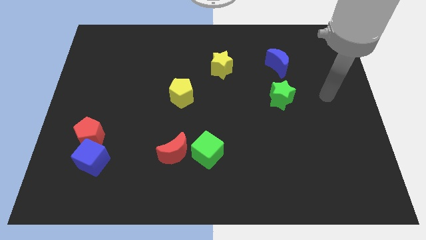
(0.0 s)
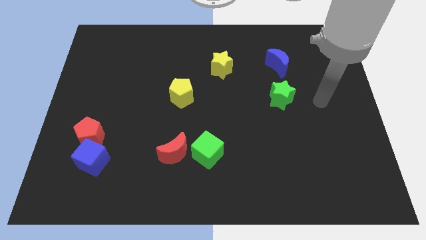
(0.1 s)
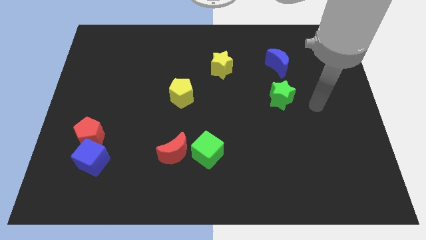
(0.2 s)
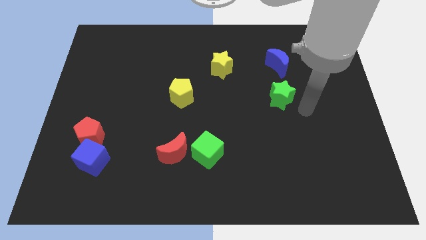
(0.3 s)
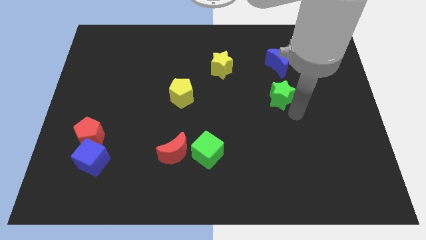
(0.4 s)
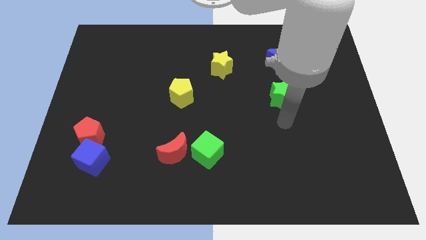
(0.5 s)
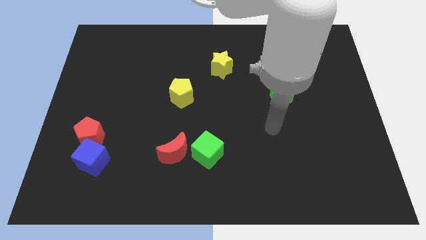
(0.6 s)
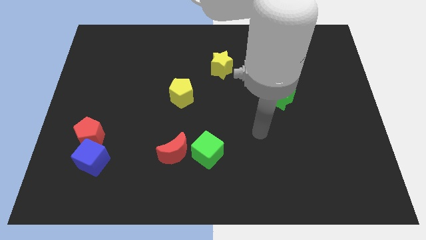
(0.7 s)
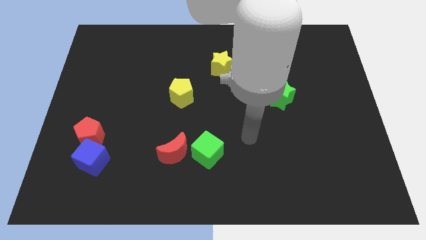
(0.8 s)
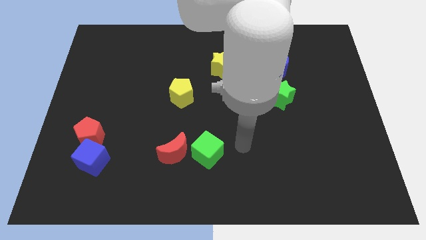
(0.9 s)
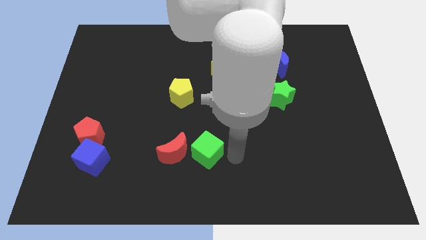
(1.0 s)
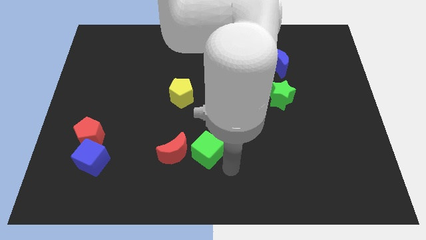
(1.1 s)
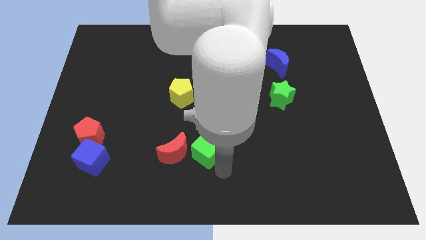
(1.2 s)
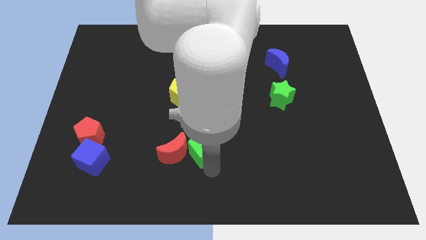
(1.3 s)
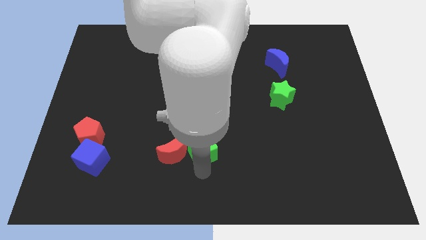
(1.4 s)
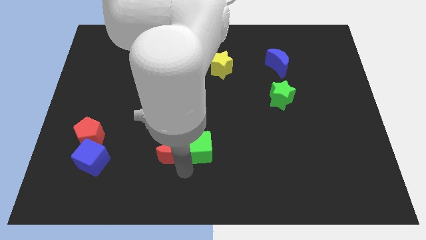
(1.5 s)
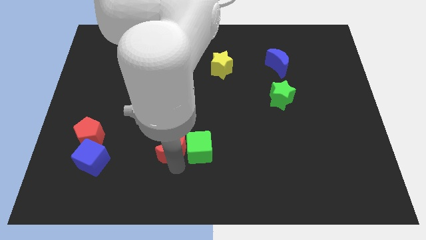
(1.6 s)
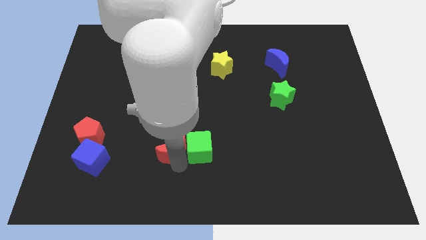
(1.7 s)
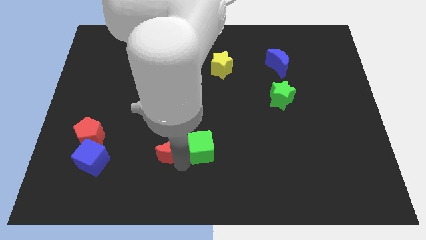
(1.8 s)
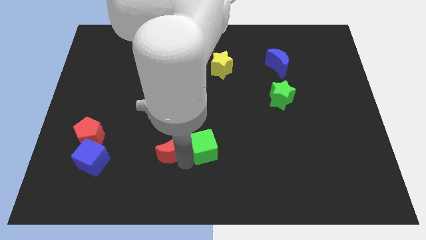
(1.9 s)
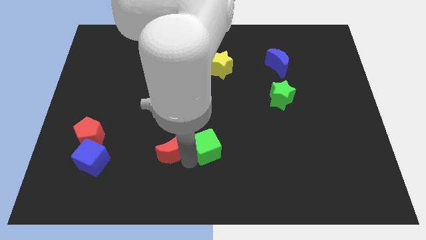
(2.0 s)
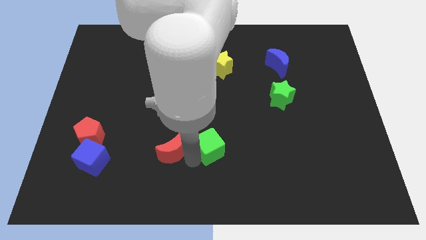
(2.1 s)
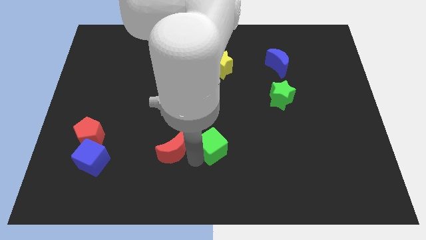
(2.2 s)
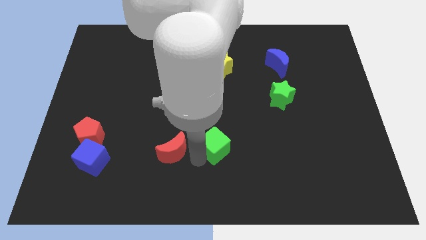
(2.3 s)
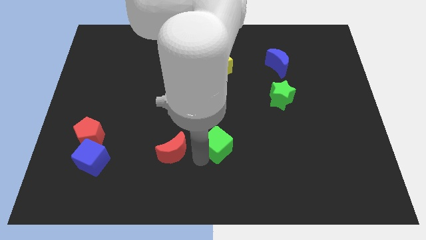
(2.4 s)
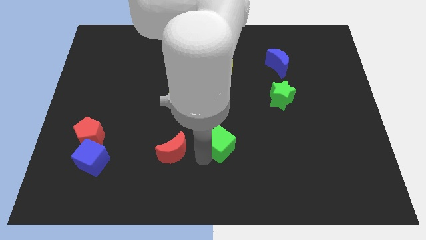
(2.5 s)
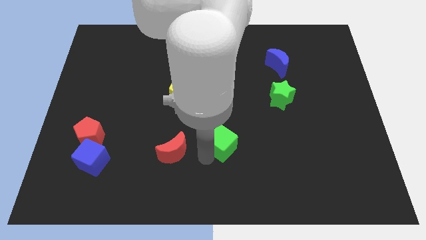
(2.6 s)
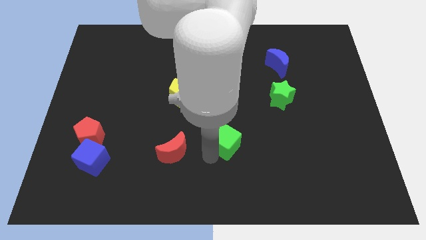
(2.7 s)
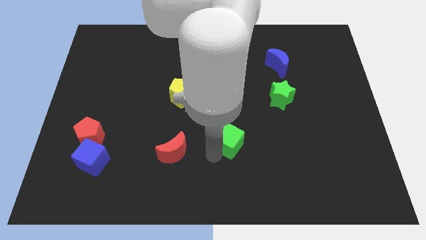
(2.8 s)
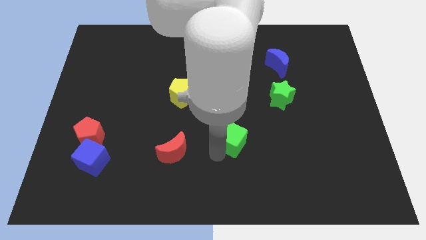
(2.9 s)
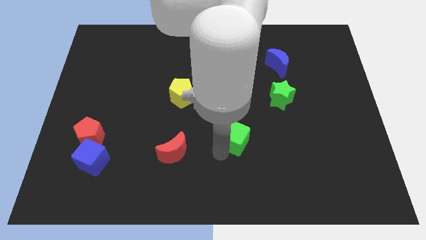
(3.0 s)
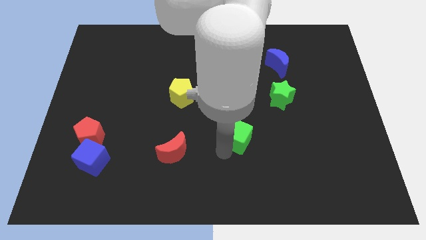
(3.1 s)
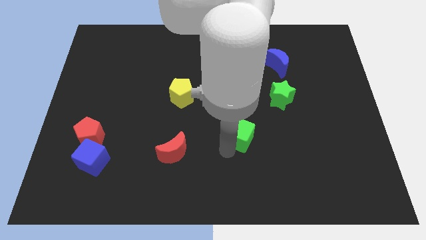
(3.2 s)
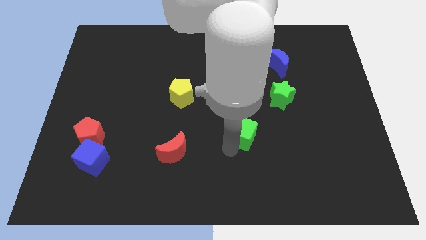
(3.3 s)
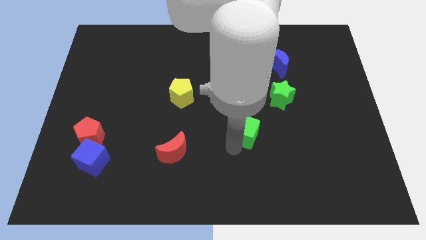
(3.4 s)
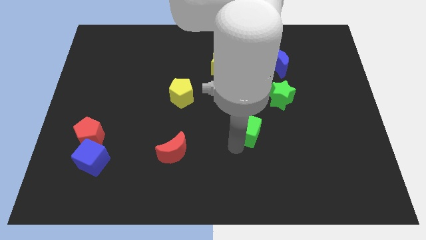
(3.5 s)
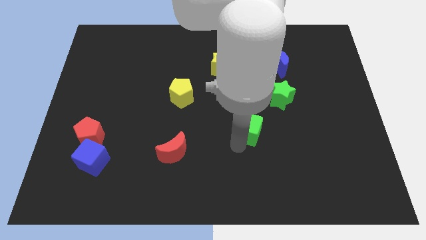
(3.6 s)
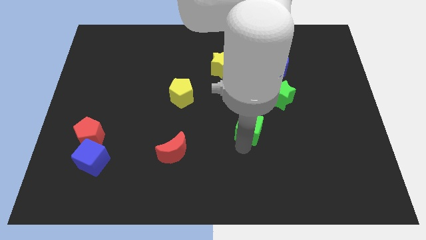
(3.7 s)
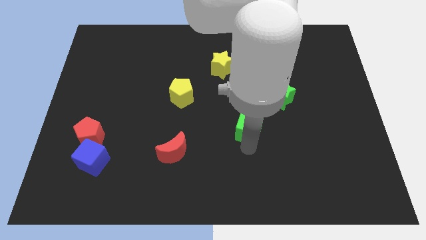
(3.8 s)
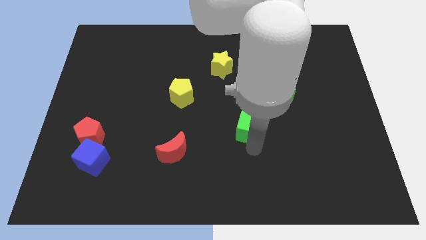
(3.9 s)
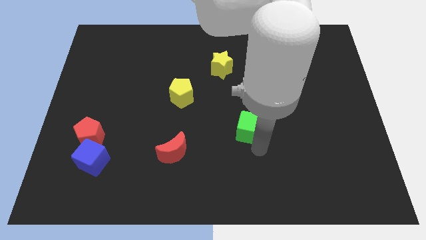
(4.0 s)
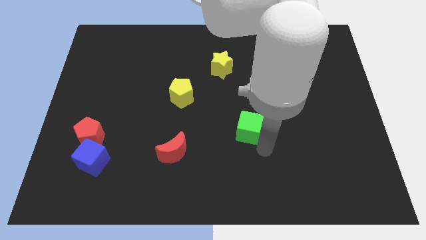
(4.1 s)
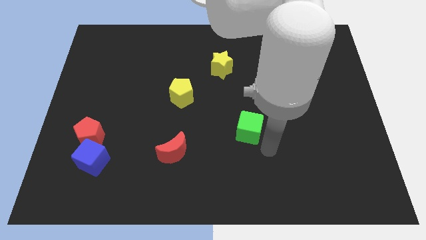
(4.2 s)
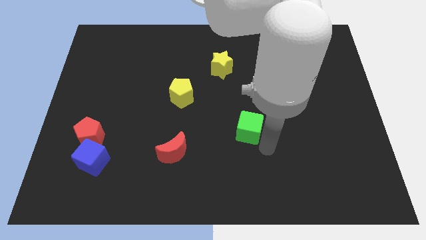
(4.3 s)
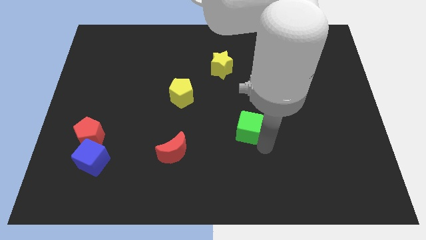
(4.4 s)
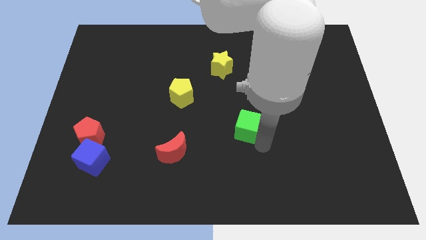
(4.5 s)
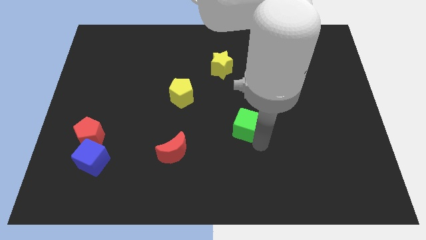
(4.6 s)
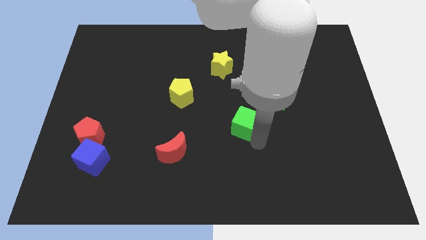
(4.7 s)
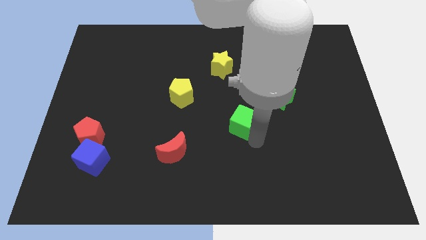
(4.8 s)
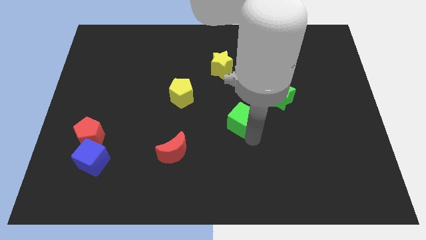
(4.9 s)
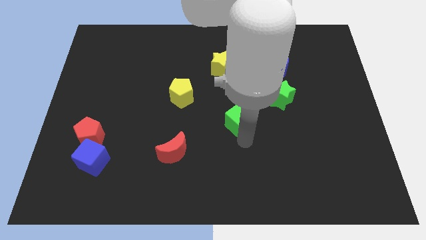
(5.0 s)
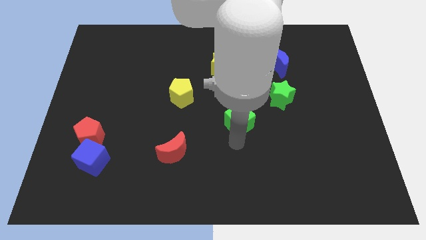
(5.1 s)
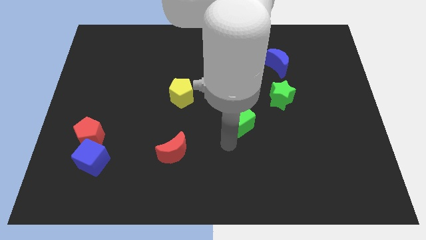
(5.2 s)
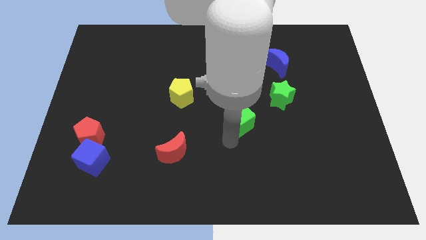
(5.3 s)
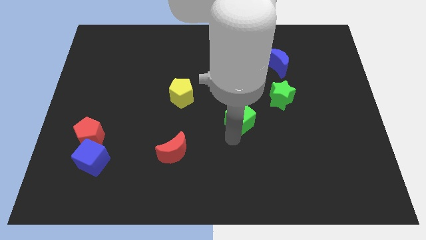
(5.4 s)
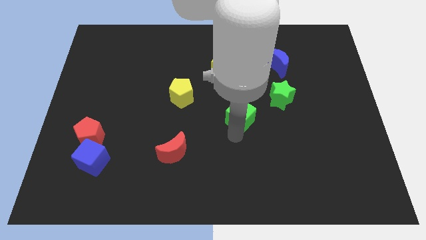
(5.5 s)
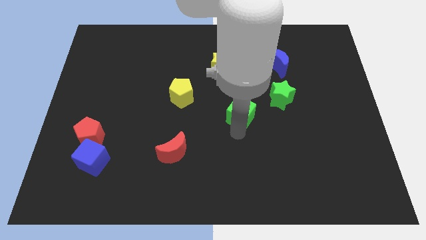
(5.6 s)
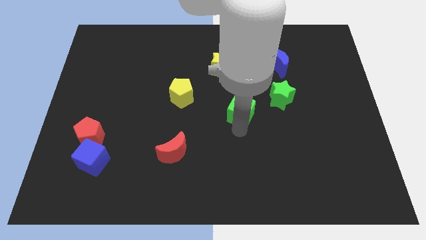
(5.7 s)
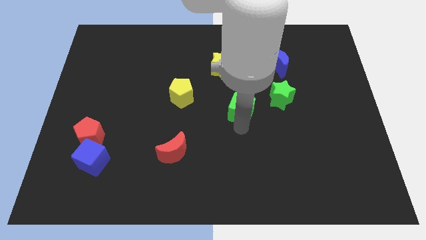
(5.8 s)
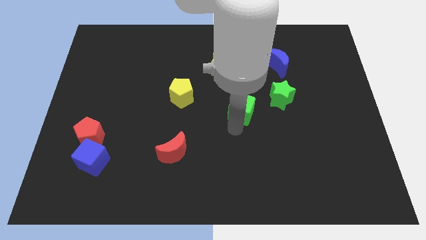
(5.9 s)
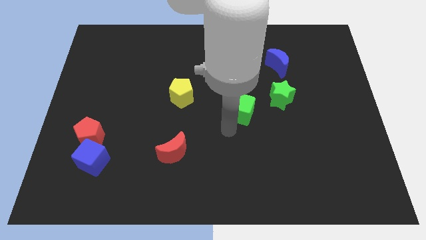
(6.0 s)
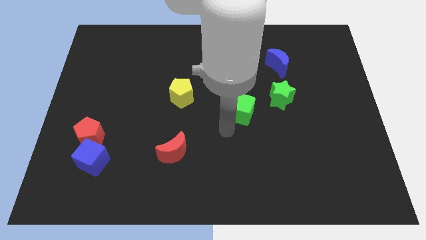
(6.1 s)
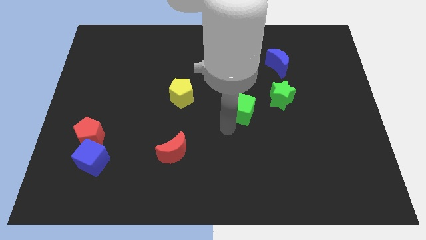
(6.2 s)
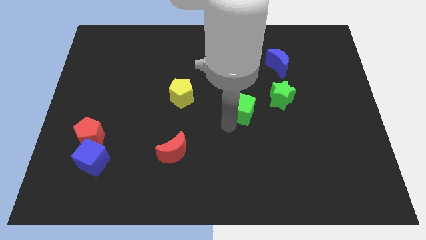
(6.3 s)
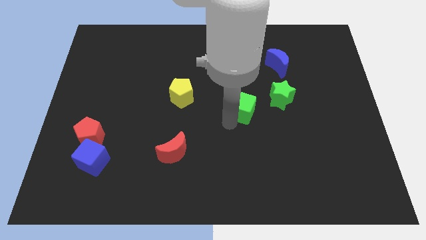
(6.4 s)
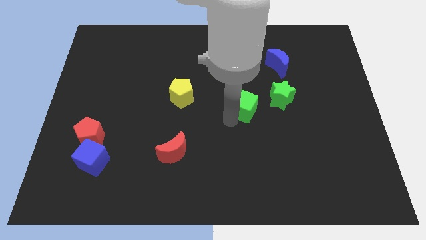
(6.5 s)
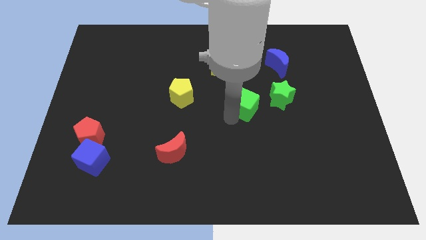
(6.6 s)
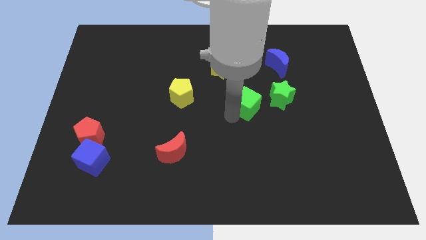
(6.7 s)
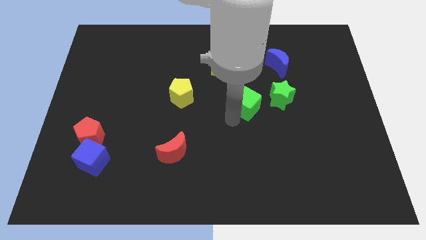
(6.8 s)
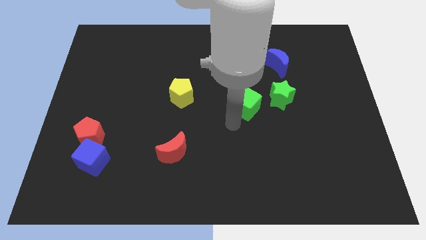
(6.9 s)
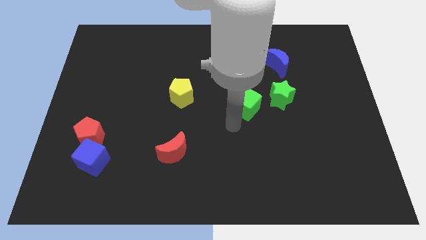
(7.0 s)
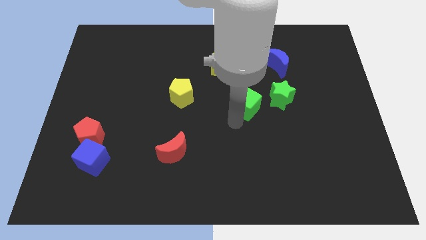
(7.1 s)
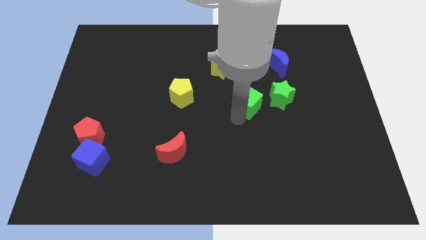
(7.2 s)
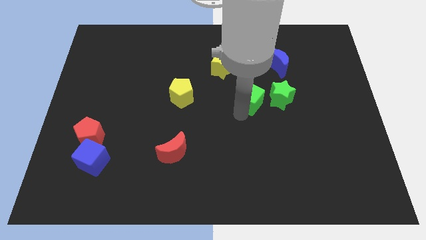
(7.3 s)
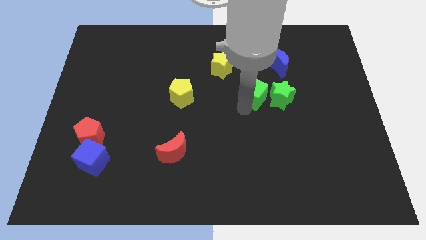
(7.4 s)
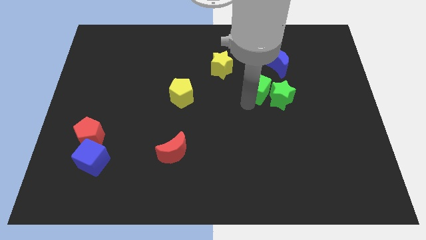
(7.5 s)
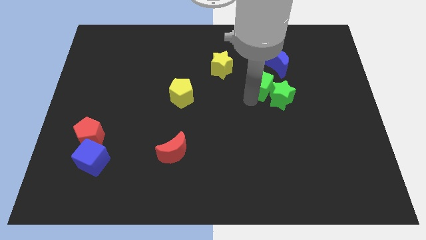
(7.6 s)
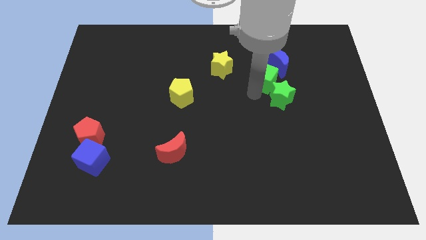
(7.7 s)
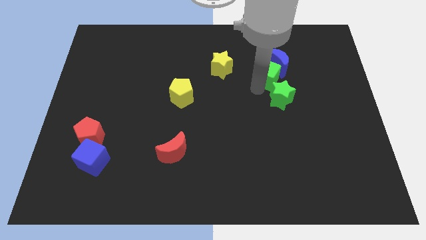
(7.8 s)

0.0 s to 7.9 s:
slide the green cube towards the blue moon

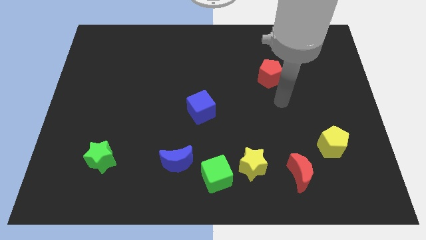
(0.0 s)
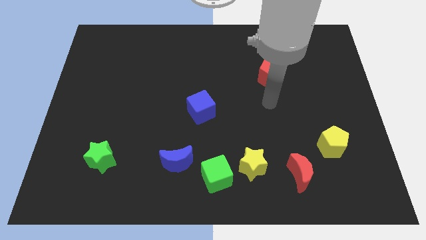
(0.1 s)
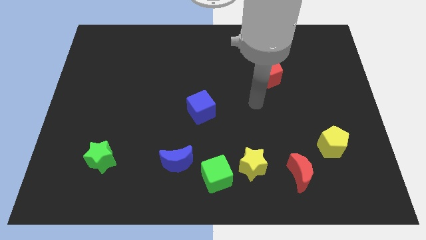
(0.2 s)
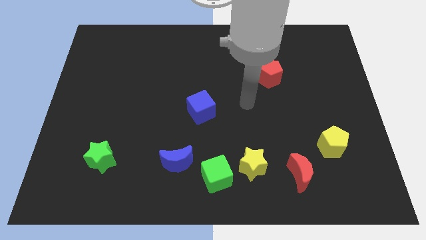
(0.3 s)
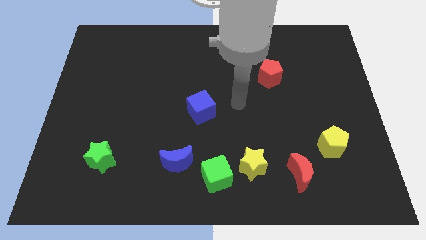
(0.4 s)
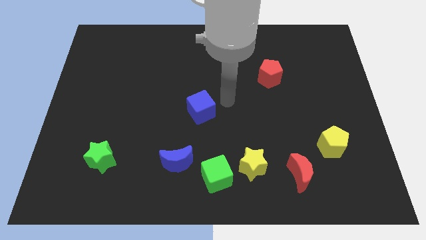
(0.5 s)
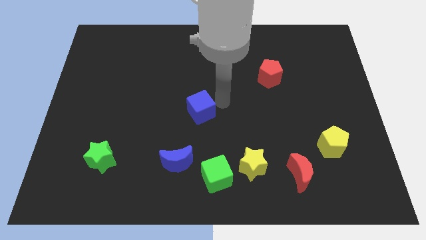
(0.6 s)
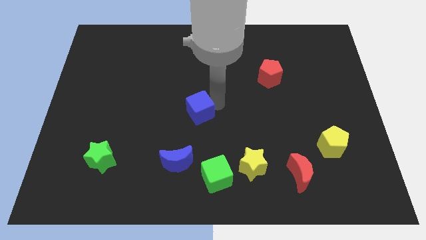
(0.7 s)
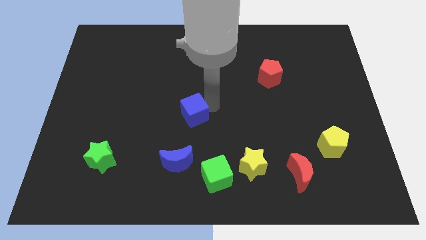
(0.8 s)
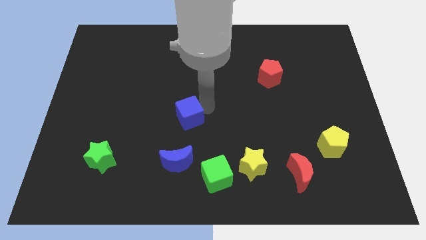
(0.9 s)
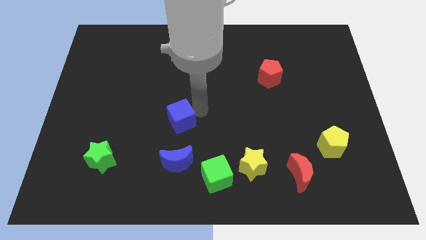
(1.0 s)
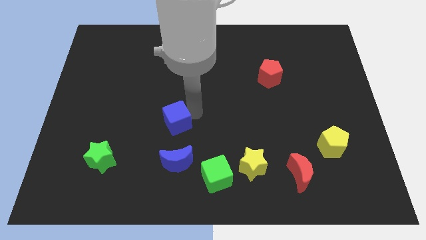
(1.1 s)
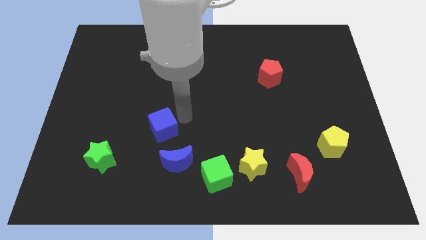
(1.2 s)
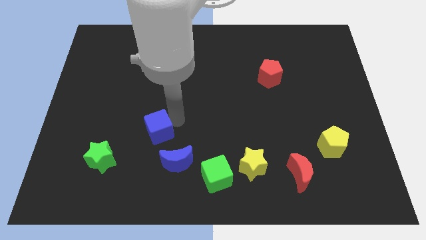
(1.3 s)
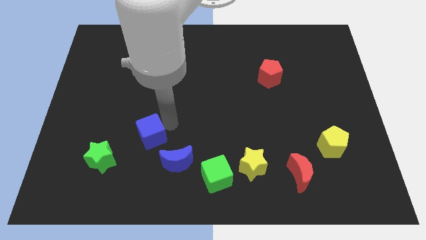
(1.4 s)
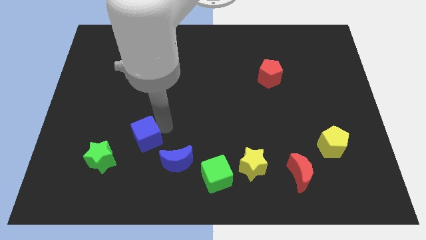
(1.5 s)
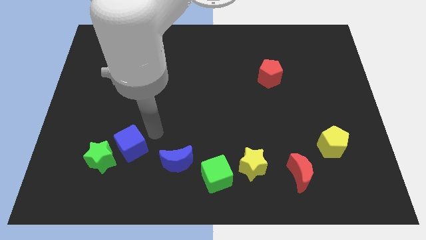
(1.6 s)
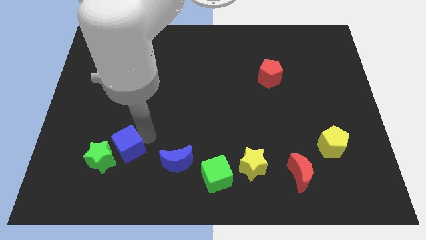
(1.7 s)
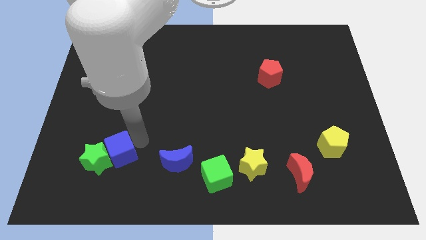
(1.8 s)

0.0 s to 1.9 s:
move the blue cube towards the green star
